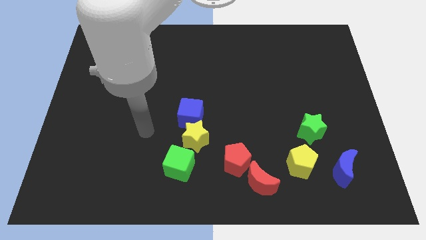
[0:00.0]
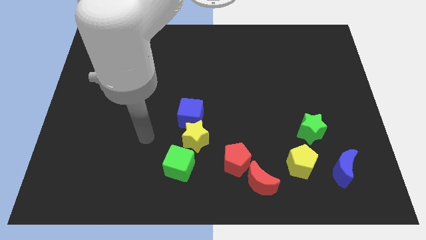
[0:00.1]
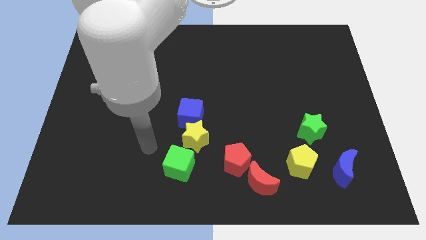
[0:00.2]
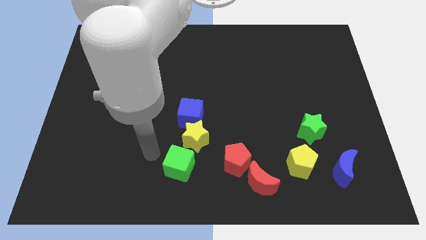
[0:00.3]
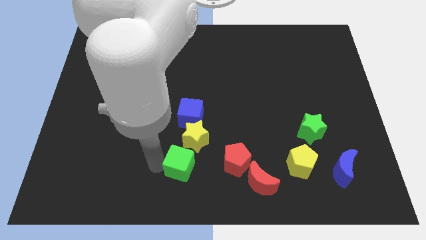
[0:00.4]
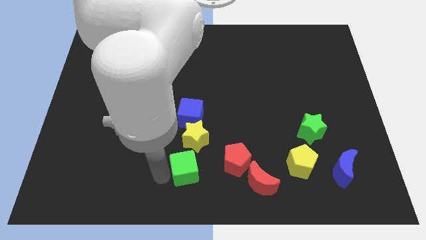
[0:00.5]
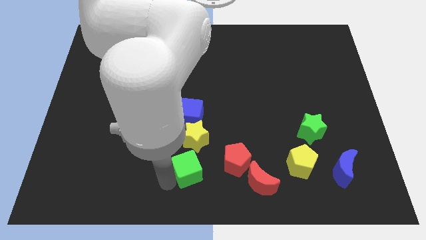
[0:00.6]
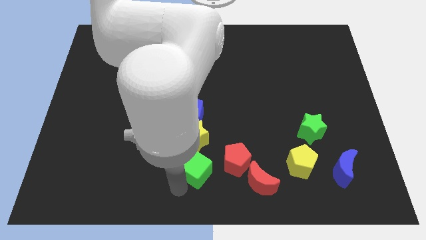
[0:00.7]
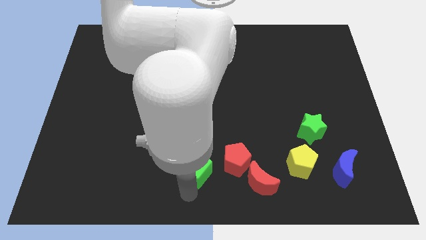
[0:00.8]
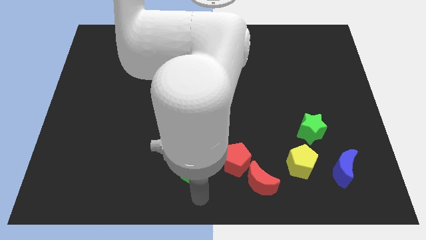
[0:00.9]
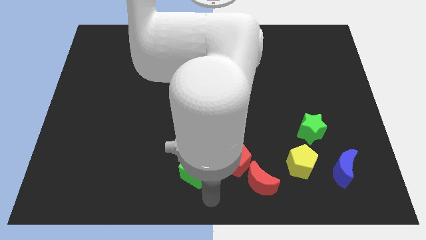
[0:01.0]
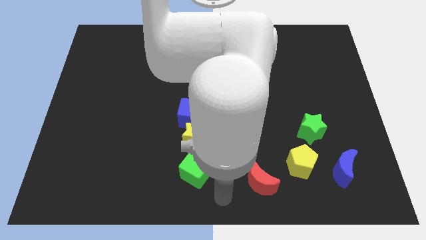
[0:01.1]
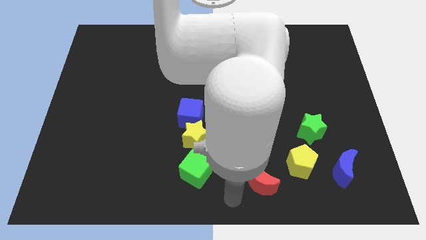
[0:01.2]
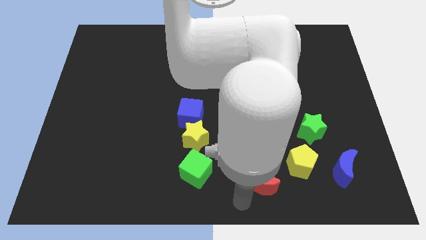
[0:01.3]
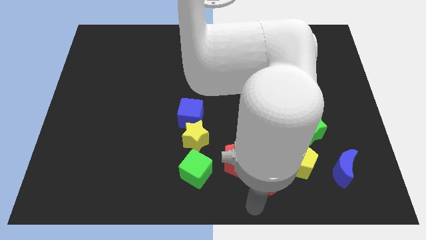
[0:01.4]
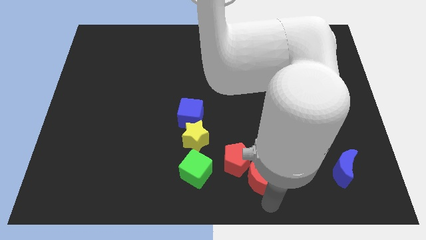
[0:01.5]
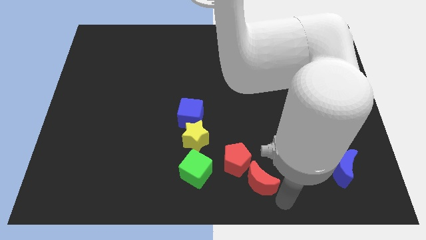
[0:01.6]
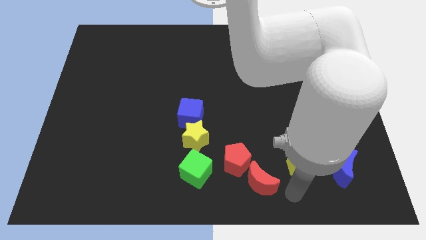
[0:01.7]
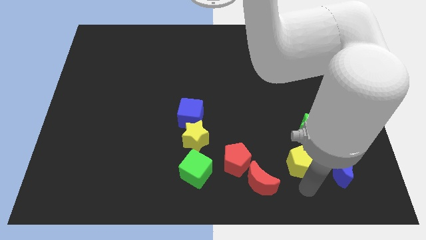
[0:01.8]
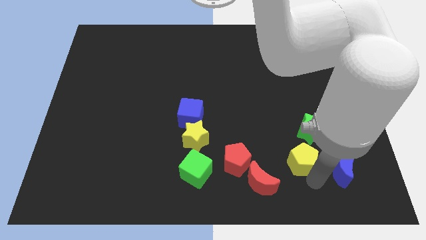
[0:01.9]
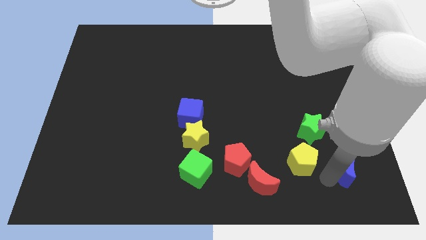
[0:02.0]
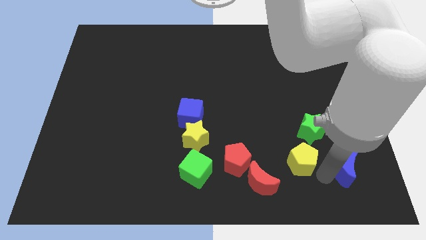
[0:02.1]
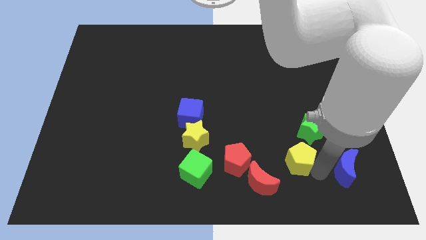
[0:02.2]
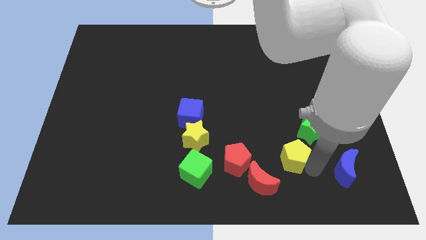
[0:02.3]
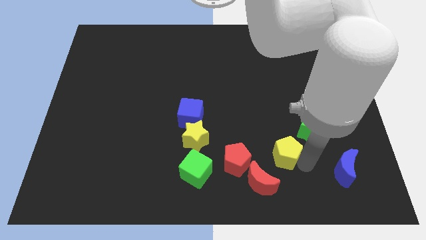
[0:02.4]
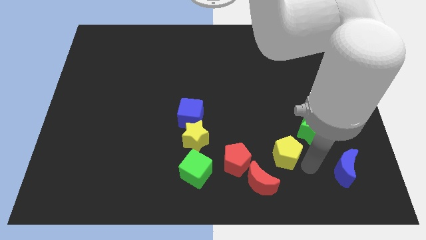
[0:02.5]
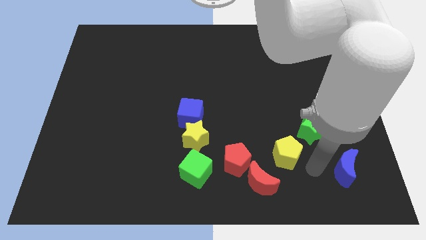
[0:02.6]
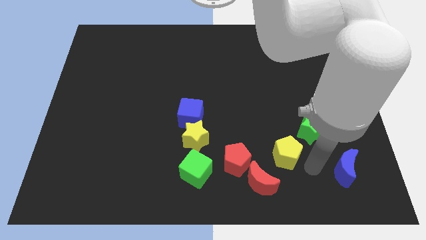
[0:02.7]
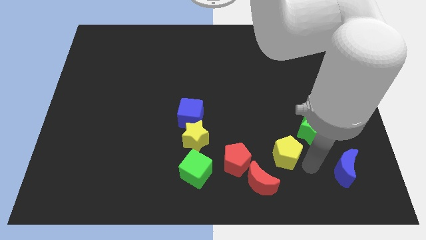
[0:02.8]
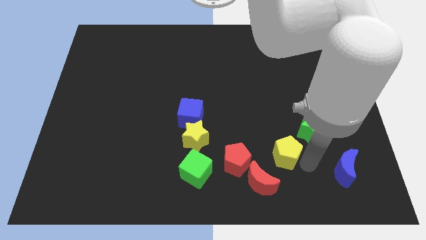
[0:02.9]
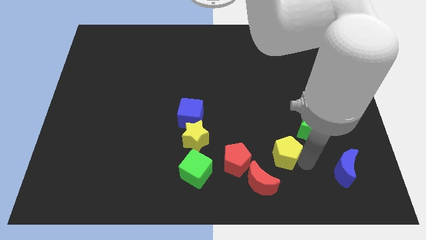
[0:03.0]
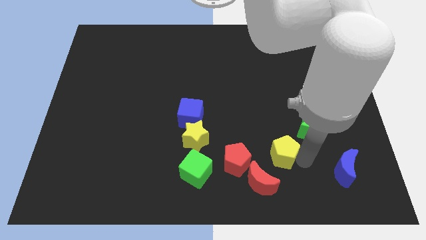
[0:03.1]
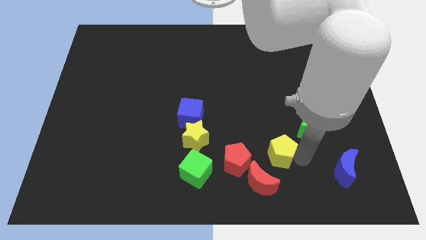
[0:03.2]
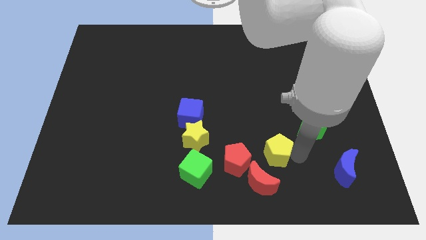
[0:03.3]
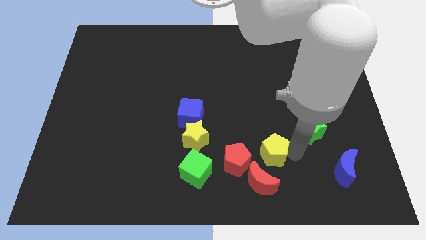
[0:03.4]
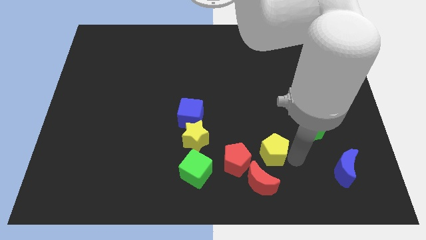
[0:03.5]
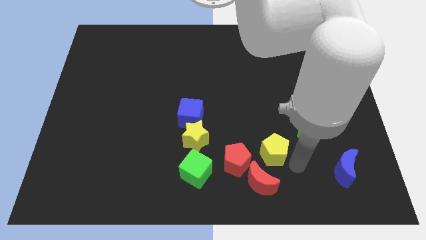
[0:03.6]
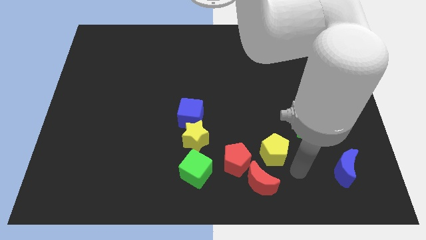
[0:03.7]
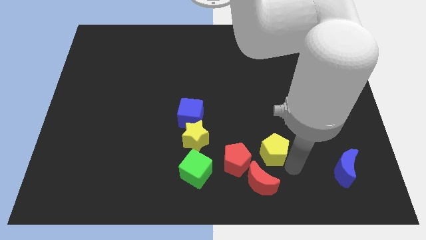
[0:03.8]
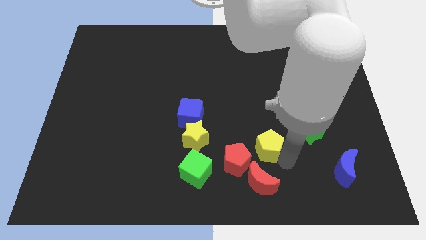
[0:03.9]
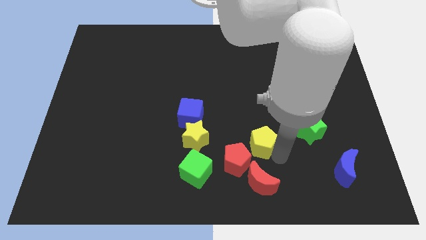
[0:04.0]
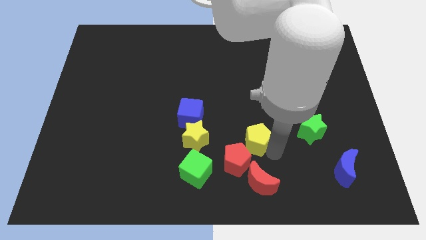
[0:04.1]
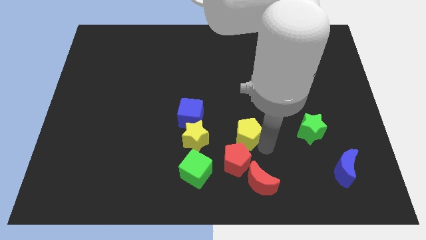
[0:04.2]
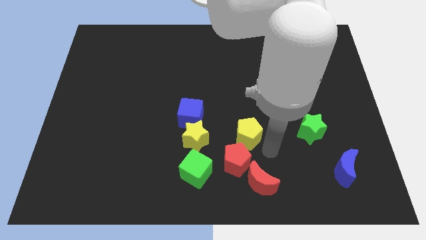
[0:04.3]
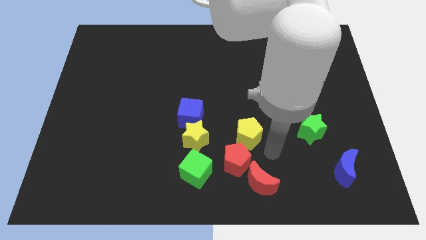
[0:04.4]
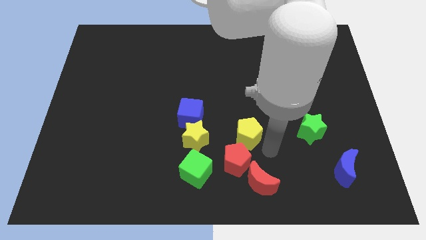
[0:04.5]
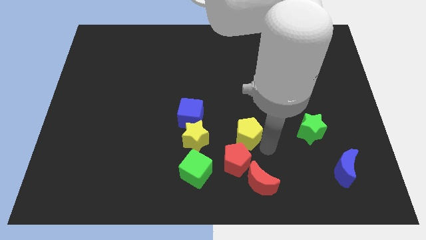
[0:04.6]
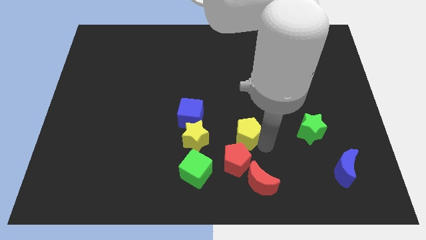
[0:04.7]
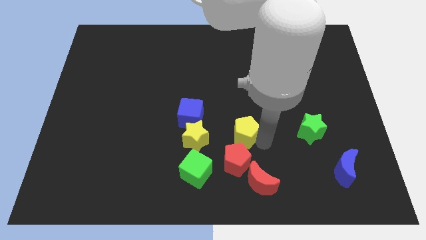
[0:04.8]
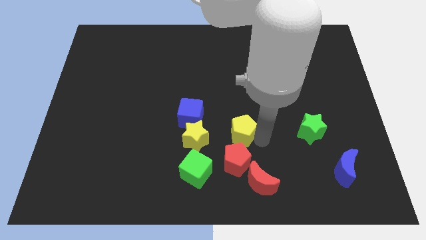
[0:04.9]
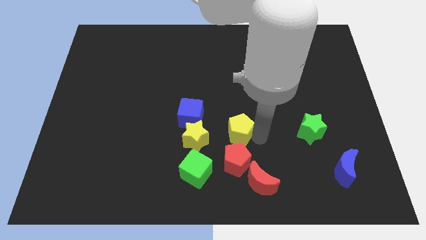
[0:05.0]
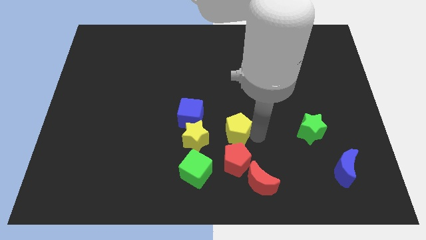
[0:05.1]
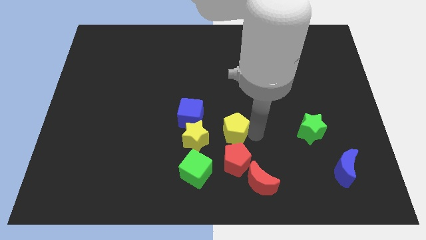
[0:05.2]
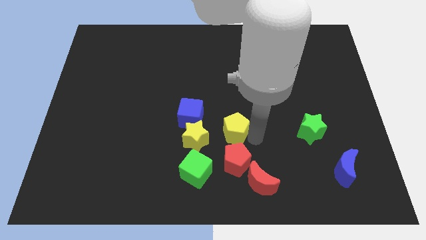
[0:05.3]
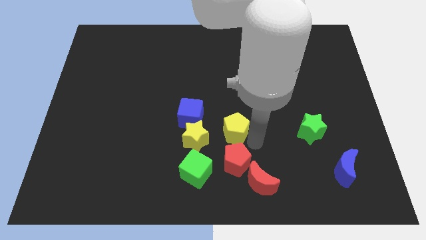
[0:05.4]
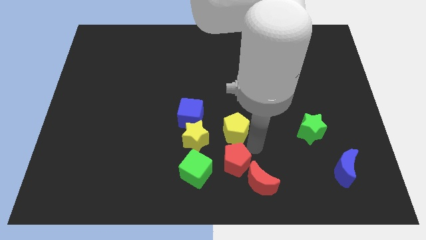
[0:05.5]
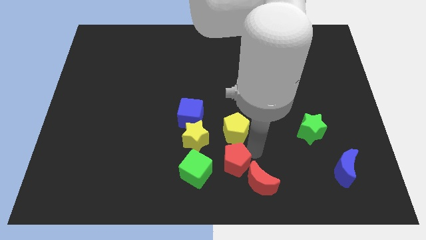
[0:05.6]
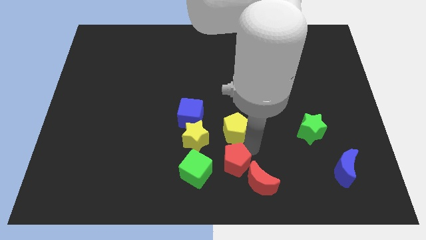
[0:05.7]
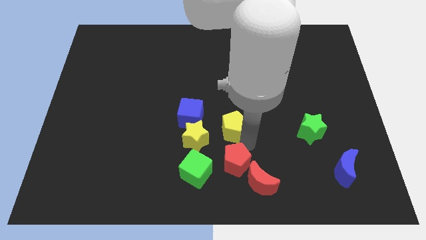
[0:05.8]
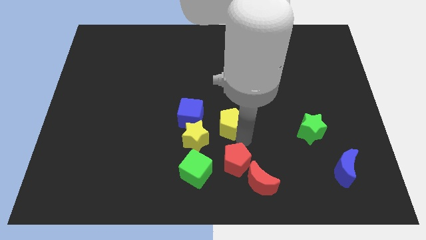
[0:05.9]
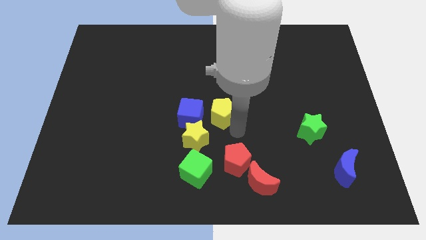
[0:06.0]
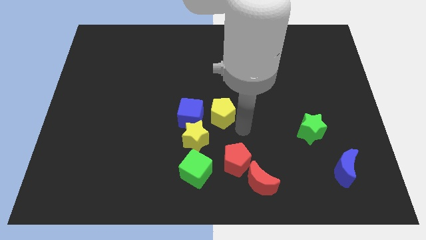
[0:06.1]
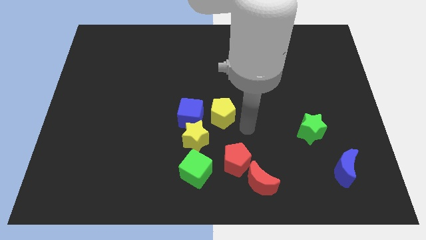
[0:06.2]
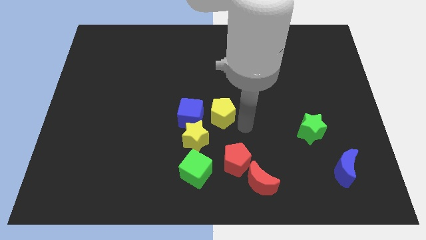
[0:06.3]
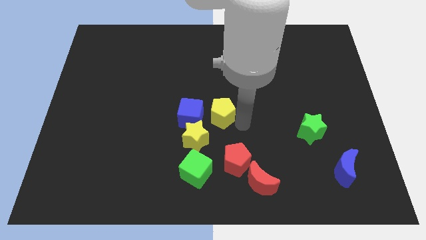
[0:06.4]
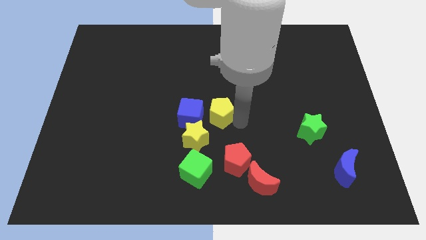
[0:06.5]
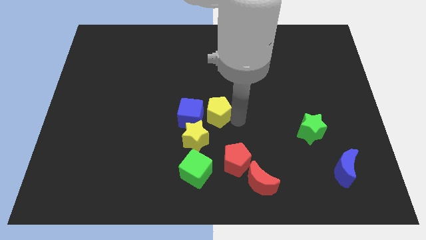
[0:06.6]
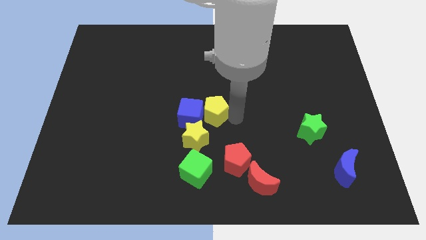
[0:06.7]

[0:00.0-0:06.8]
move the yellow pentagon to the top side of the yellow star

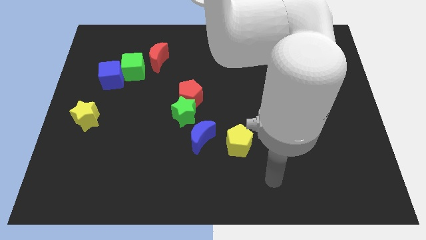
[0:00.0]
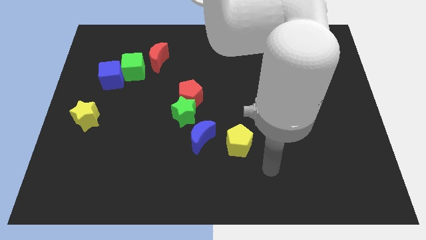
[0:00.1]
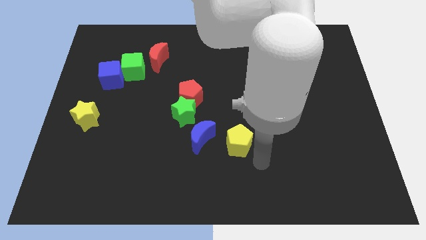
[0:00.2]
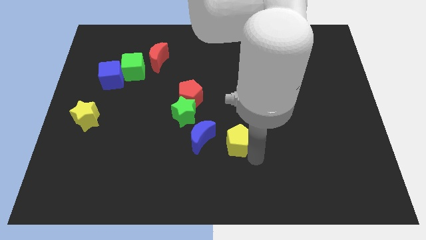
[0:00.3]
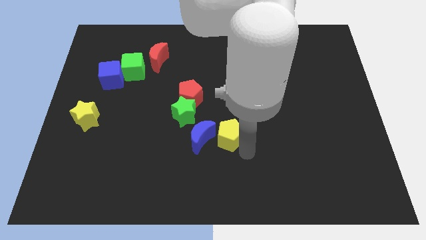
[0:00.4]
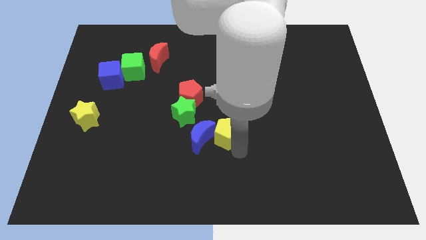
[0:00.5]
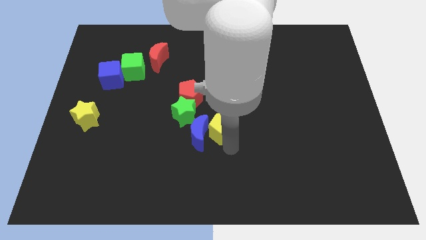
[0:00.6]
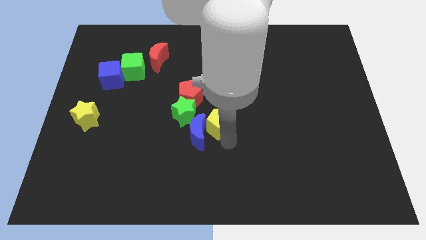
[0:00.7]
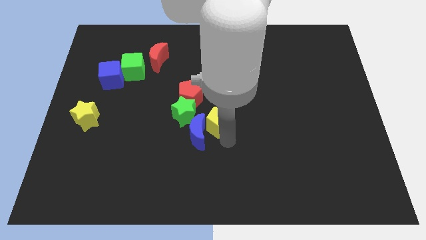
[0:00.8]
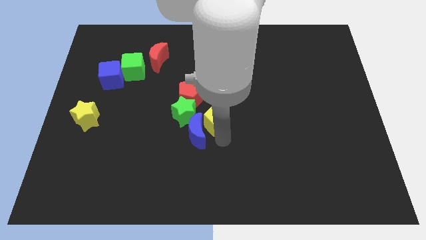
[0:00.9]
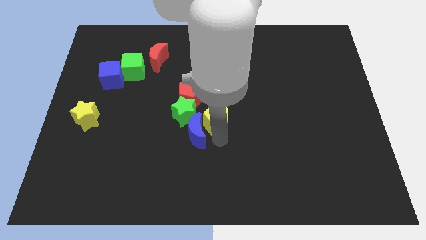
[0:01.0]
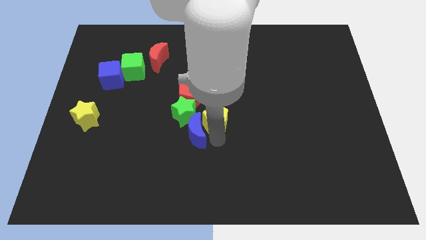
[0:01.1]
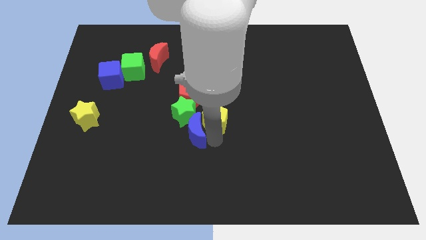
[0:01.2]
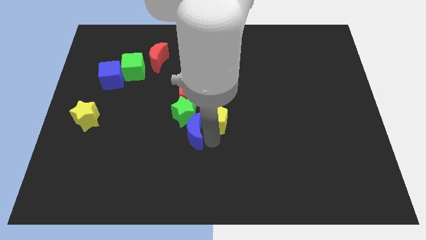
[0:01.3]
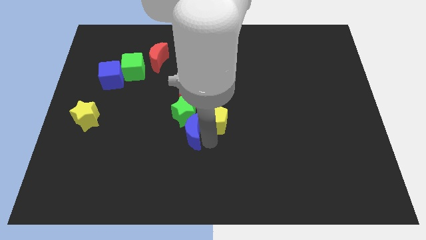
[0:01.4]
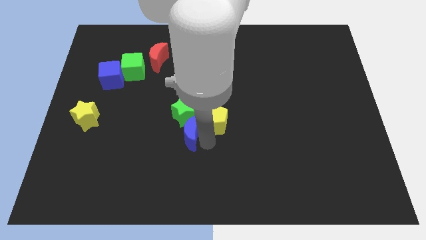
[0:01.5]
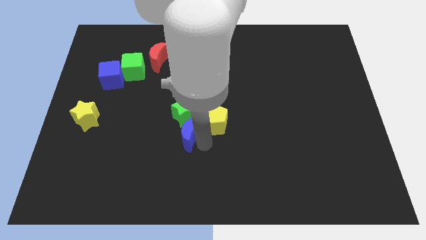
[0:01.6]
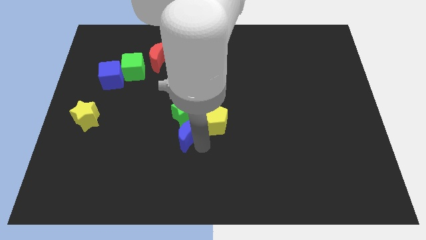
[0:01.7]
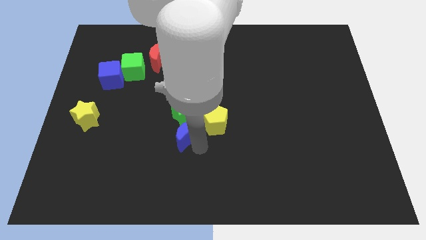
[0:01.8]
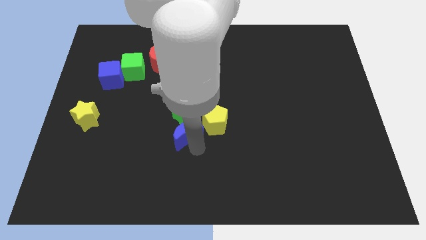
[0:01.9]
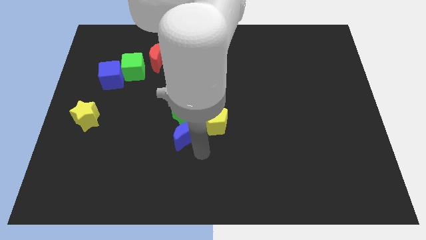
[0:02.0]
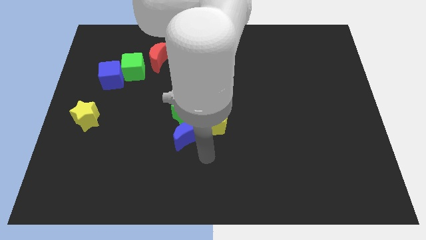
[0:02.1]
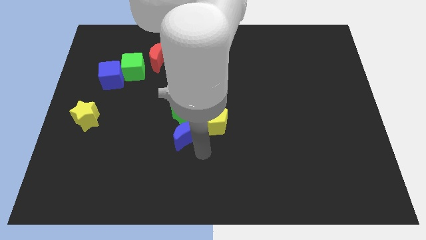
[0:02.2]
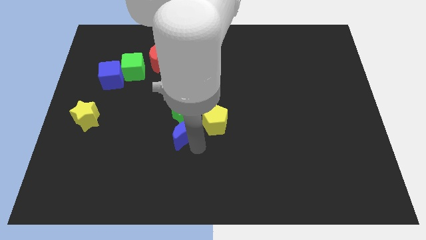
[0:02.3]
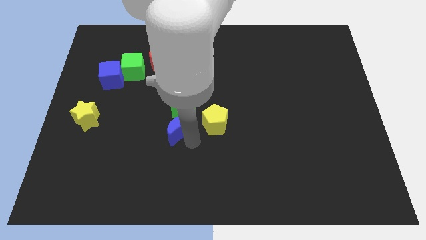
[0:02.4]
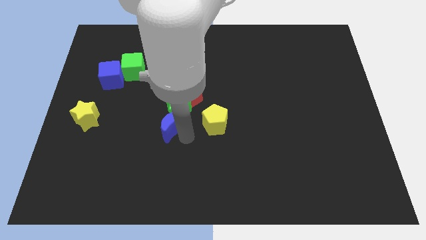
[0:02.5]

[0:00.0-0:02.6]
move the blue moon to the bottom left side of the red pentagon
